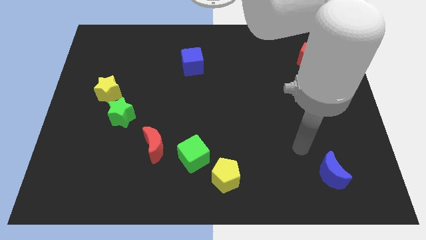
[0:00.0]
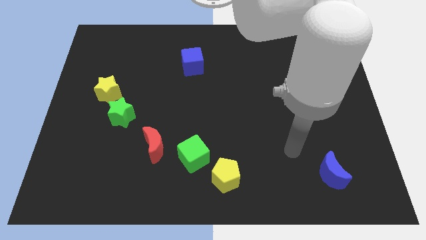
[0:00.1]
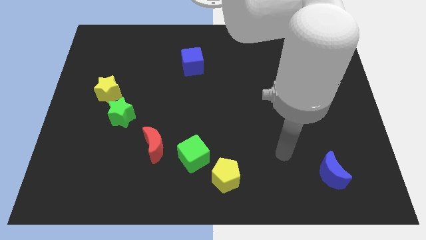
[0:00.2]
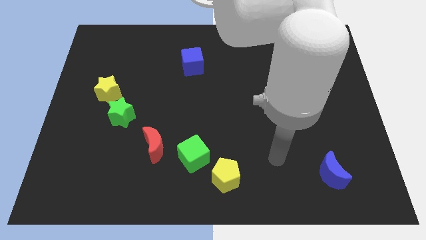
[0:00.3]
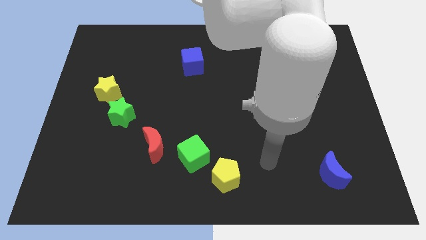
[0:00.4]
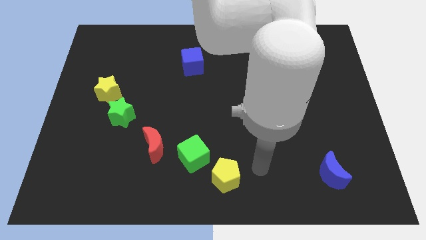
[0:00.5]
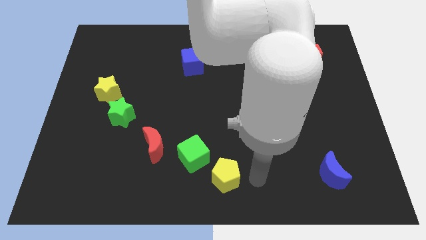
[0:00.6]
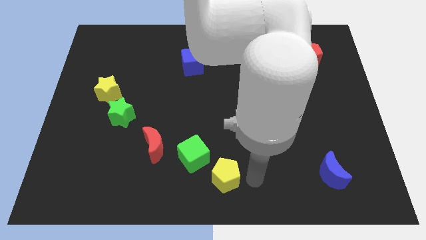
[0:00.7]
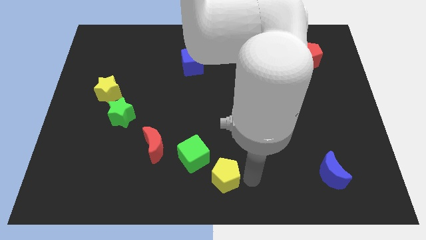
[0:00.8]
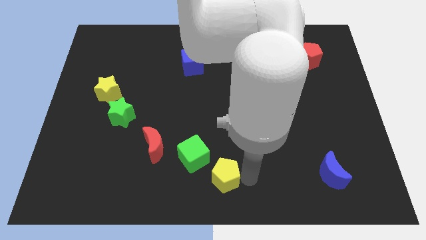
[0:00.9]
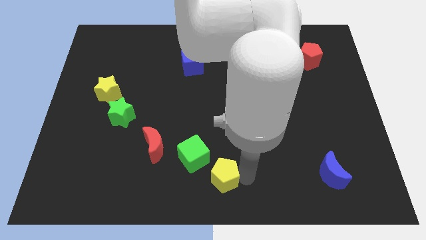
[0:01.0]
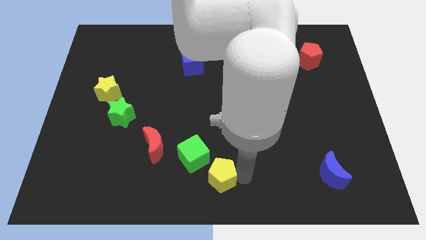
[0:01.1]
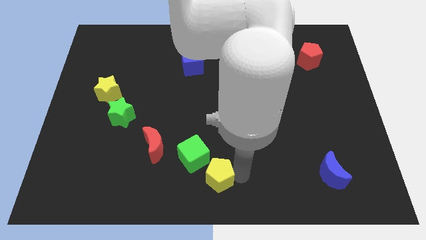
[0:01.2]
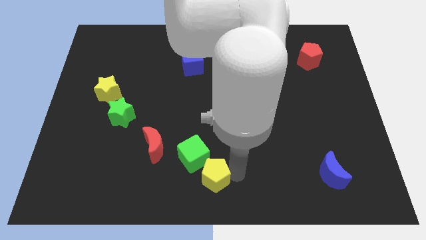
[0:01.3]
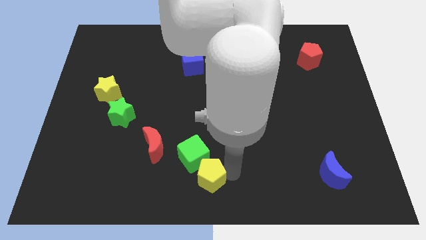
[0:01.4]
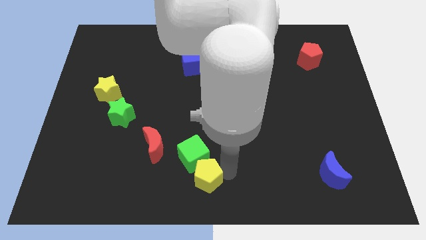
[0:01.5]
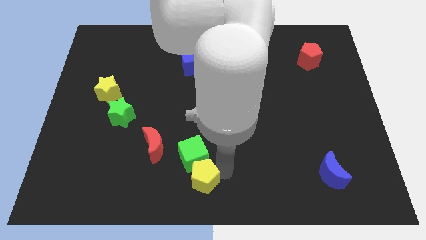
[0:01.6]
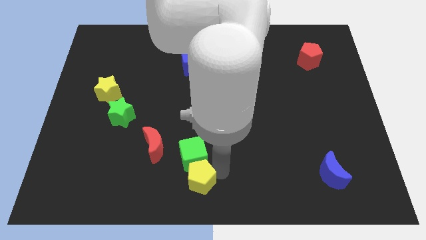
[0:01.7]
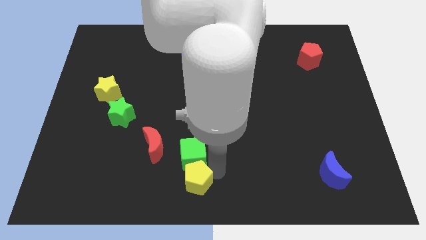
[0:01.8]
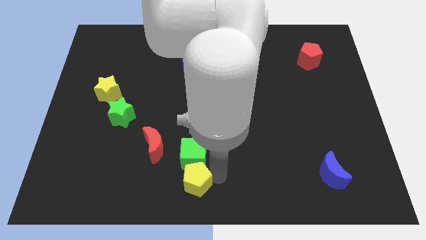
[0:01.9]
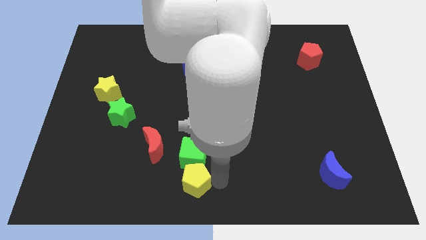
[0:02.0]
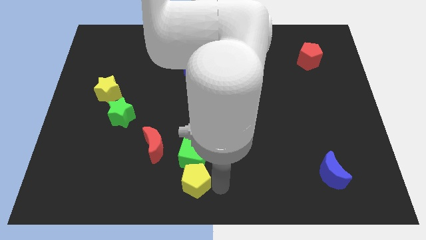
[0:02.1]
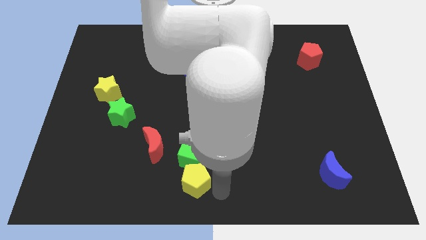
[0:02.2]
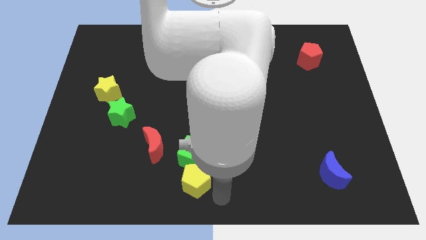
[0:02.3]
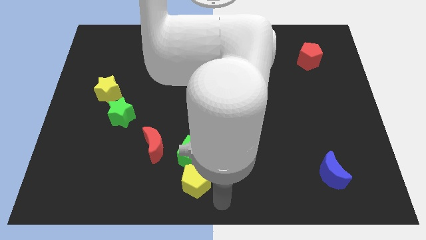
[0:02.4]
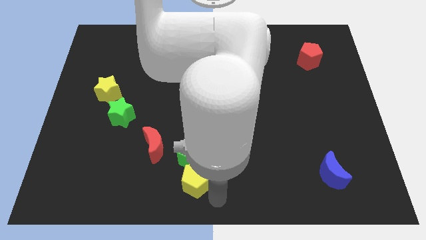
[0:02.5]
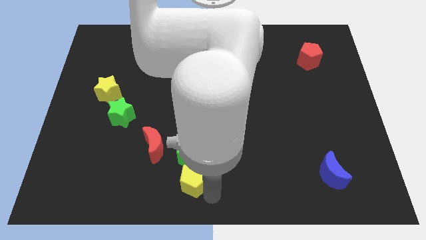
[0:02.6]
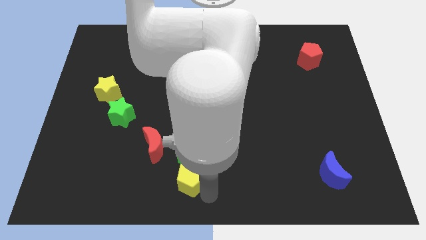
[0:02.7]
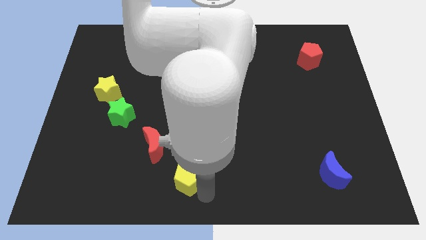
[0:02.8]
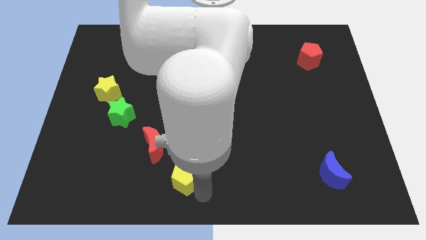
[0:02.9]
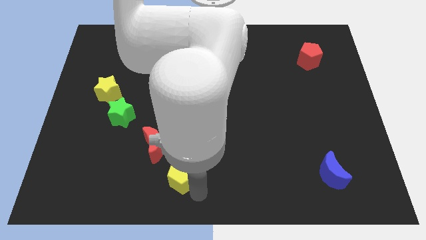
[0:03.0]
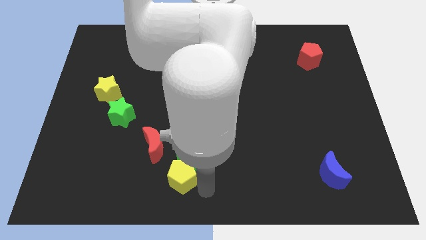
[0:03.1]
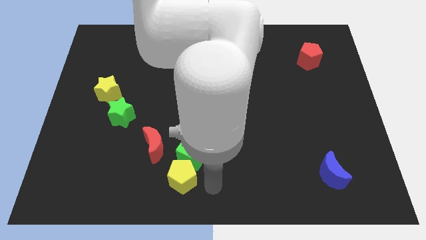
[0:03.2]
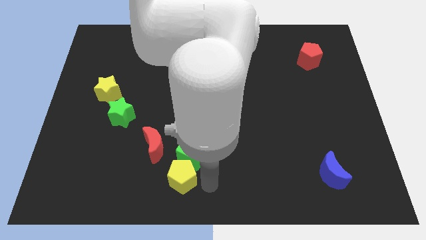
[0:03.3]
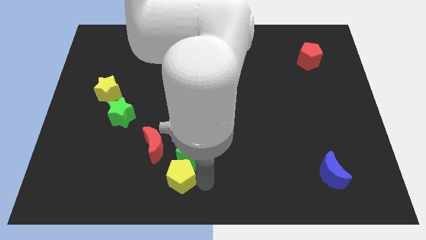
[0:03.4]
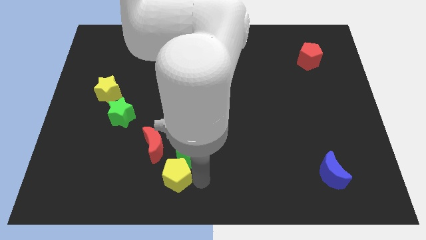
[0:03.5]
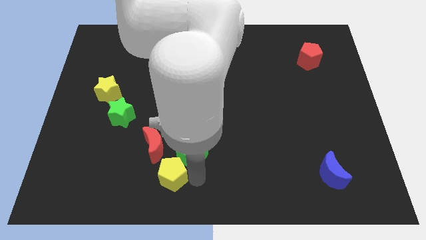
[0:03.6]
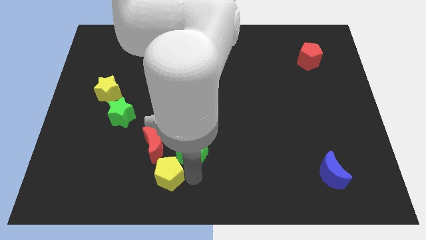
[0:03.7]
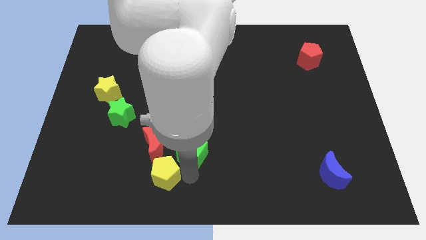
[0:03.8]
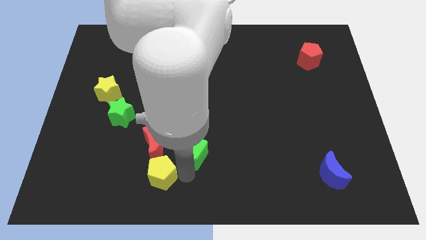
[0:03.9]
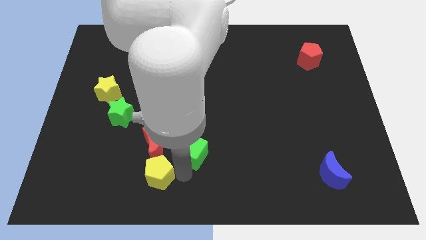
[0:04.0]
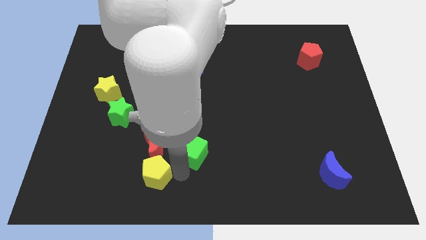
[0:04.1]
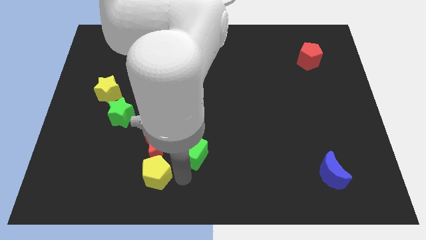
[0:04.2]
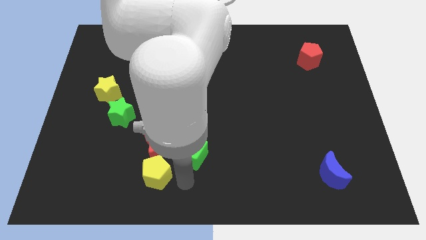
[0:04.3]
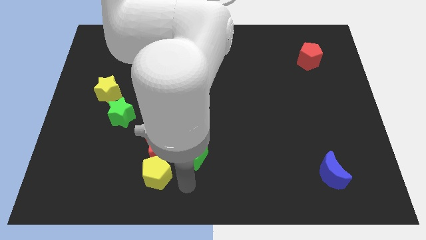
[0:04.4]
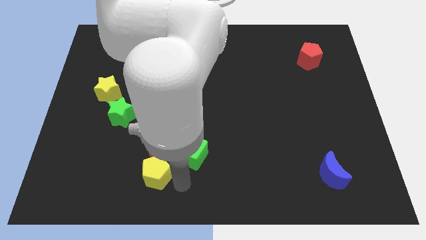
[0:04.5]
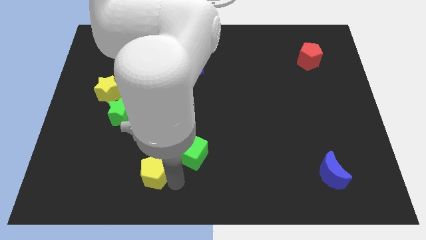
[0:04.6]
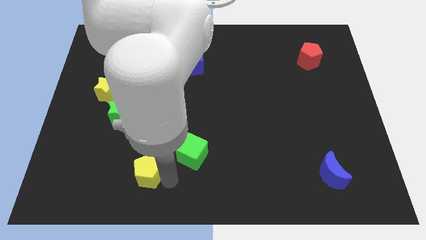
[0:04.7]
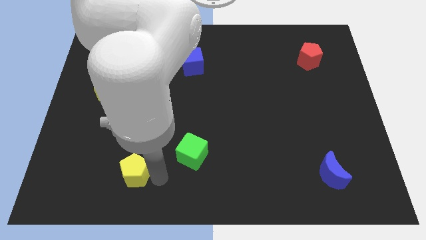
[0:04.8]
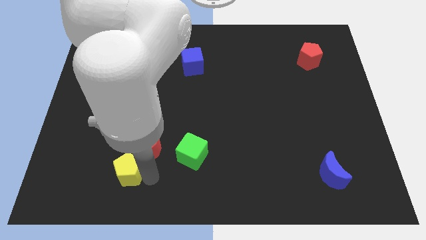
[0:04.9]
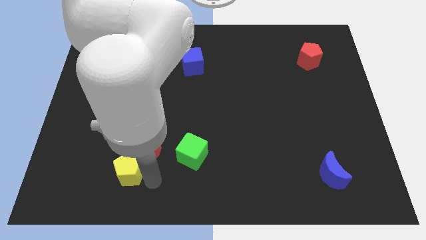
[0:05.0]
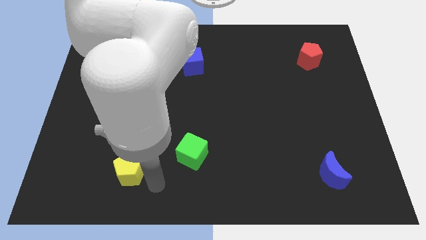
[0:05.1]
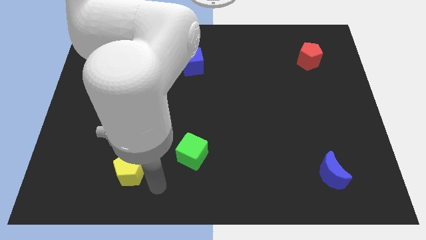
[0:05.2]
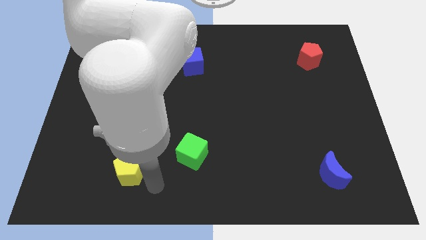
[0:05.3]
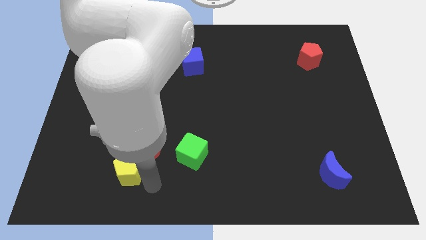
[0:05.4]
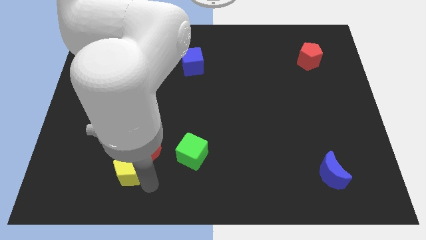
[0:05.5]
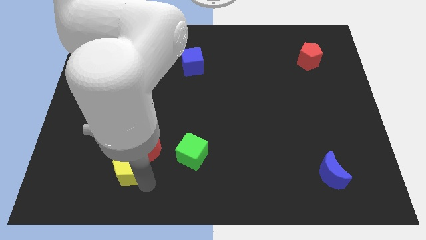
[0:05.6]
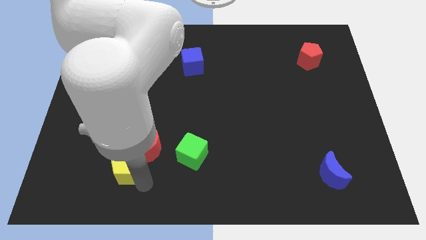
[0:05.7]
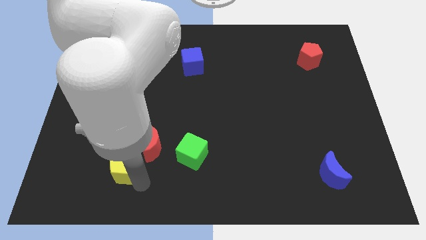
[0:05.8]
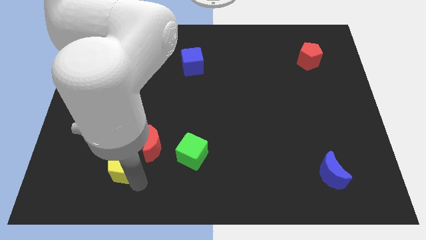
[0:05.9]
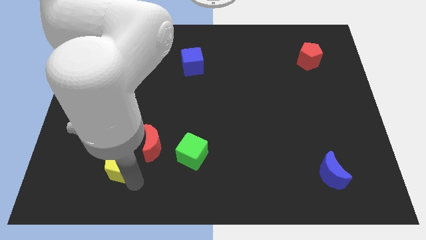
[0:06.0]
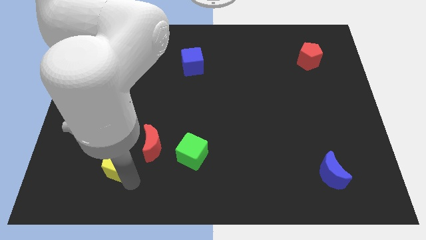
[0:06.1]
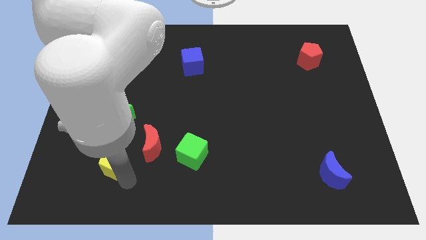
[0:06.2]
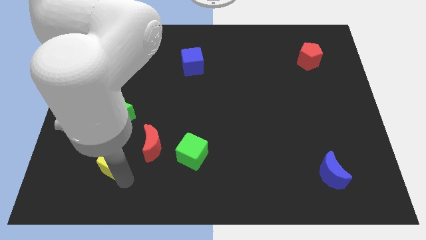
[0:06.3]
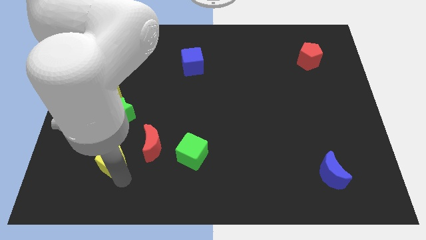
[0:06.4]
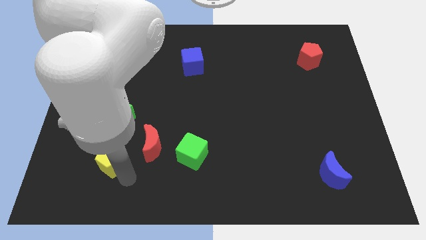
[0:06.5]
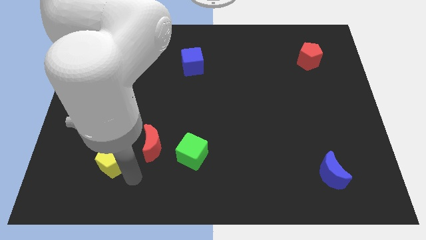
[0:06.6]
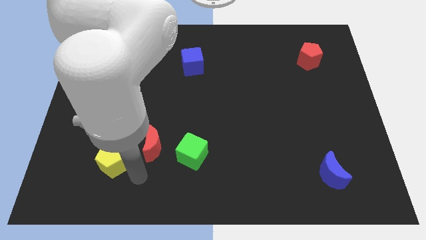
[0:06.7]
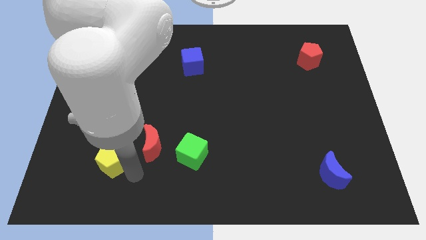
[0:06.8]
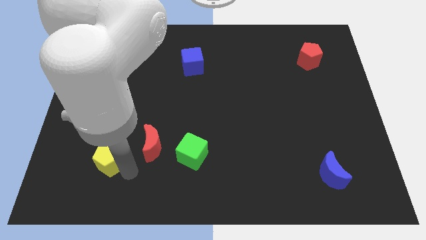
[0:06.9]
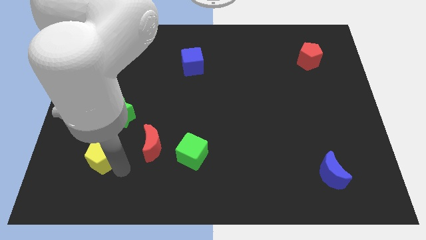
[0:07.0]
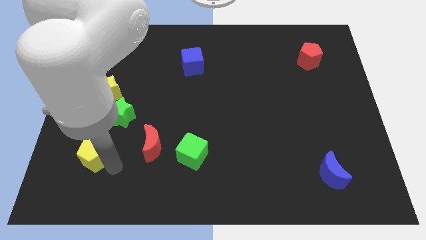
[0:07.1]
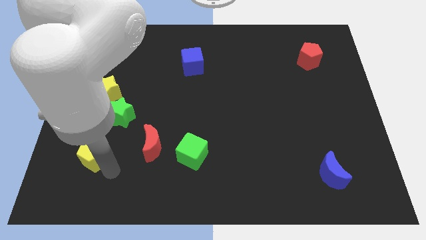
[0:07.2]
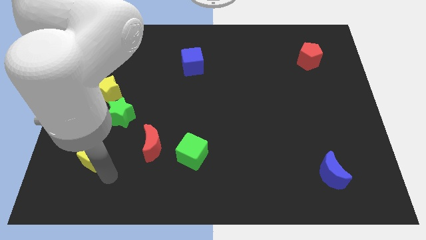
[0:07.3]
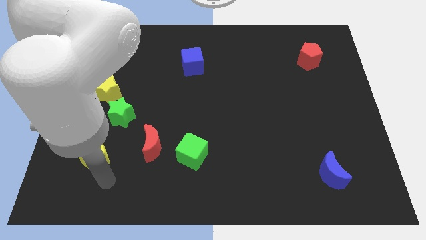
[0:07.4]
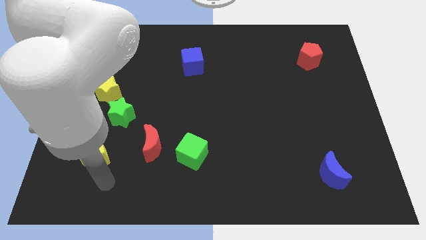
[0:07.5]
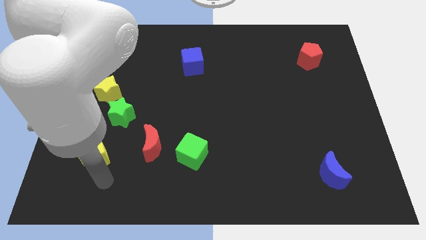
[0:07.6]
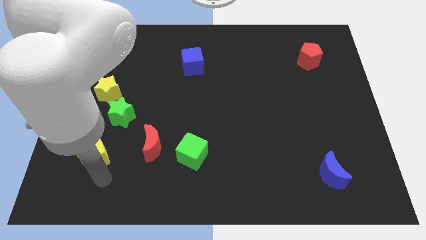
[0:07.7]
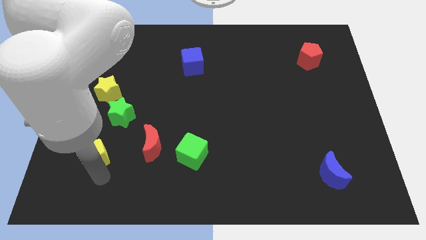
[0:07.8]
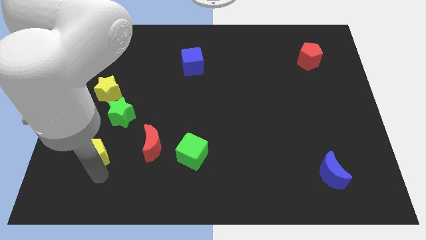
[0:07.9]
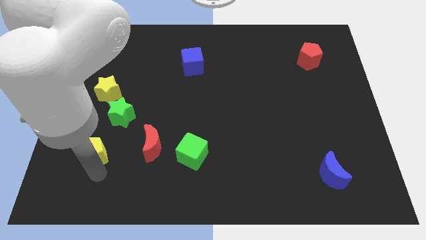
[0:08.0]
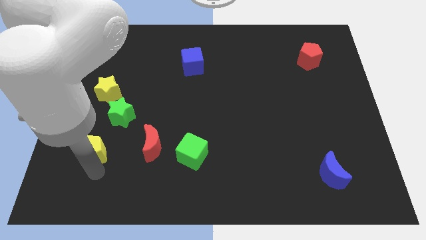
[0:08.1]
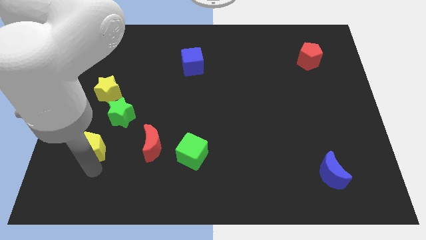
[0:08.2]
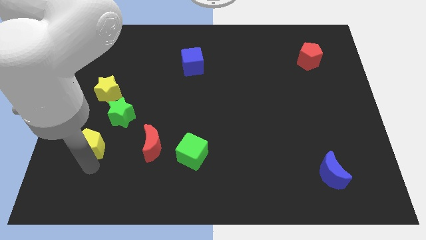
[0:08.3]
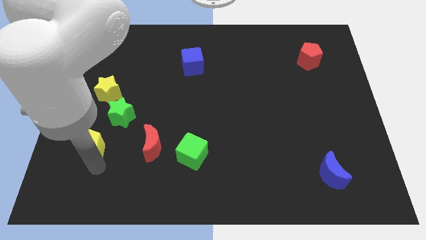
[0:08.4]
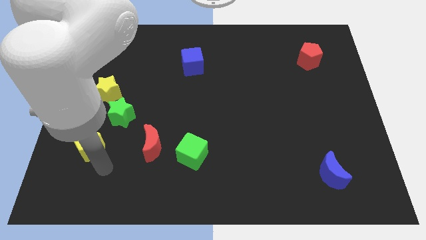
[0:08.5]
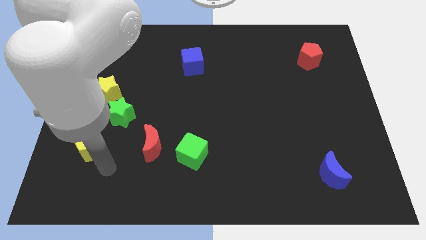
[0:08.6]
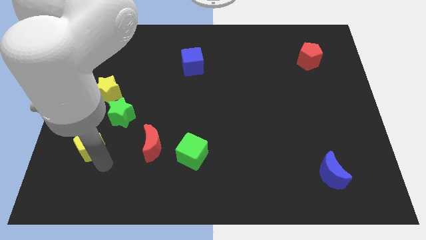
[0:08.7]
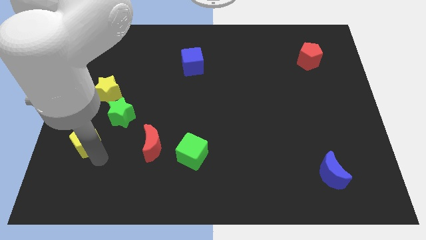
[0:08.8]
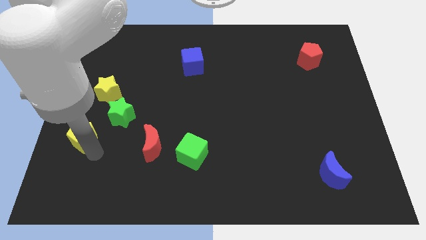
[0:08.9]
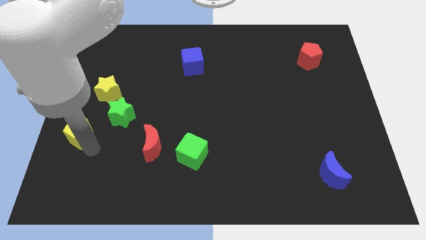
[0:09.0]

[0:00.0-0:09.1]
slide the yellow pentagon to the left side
